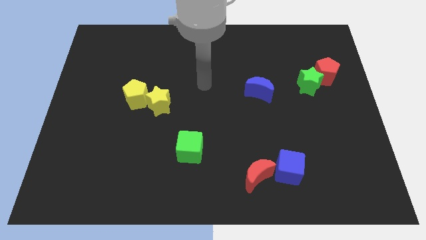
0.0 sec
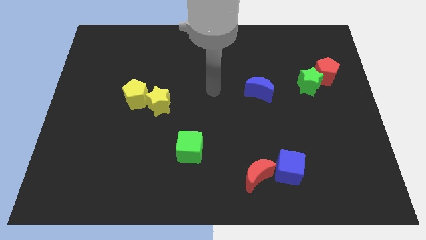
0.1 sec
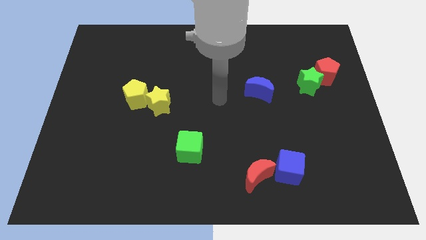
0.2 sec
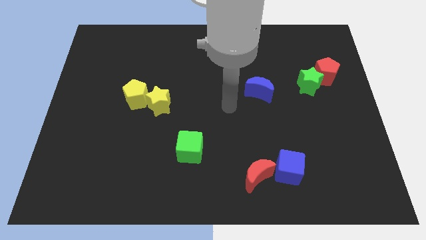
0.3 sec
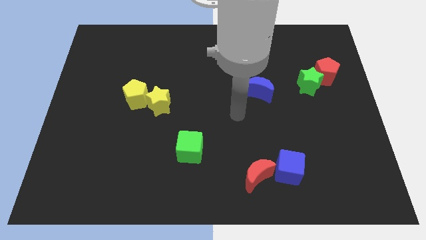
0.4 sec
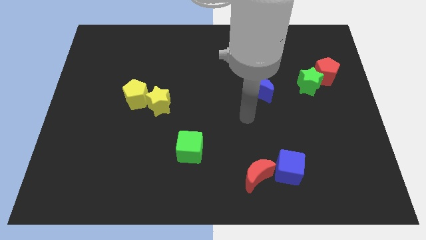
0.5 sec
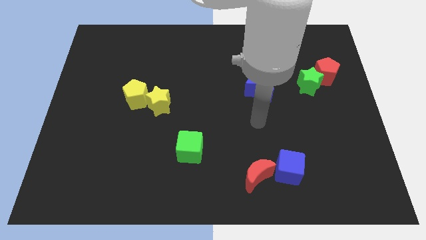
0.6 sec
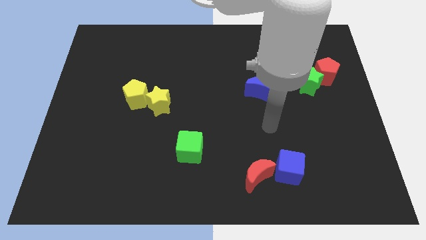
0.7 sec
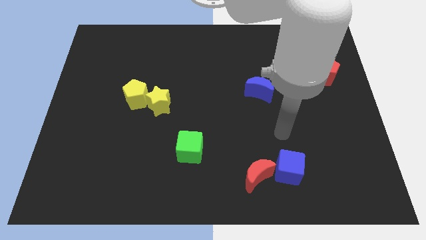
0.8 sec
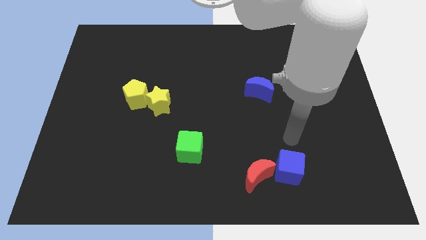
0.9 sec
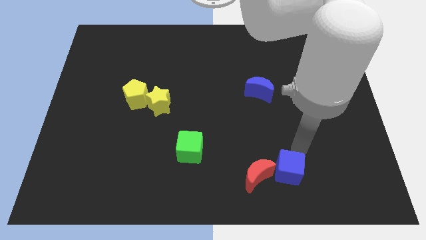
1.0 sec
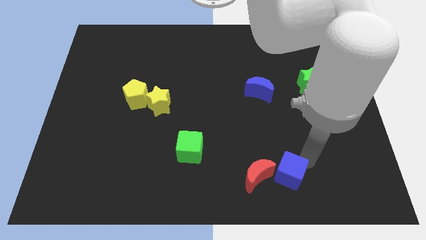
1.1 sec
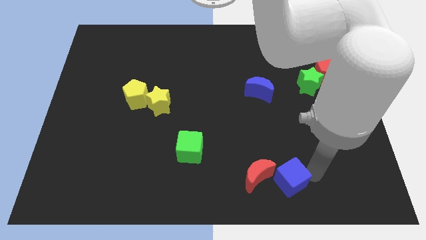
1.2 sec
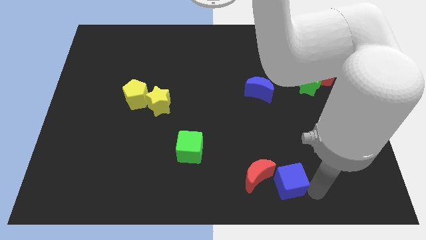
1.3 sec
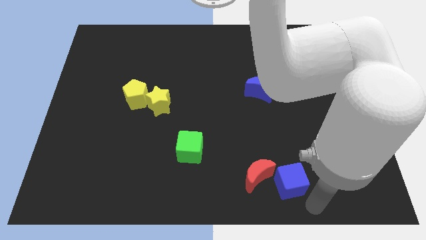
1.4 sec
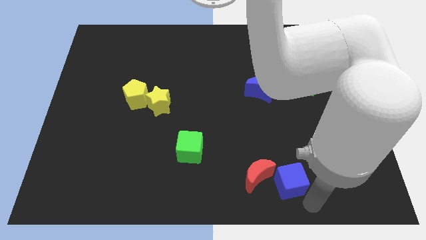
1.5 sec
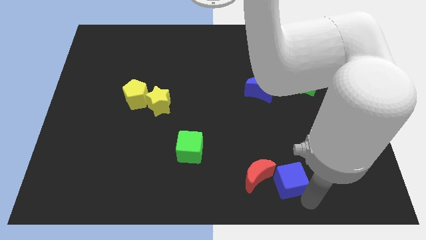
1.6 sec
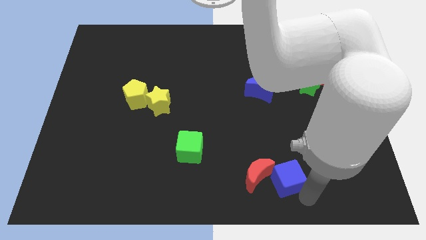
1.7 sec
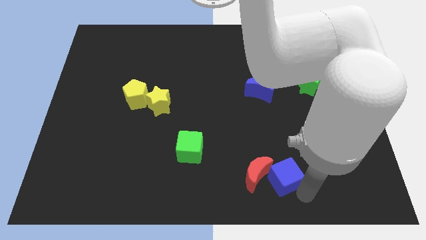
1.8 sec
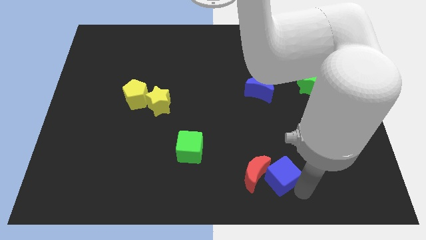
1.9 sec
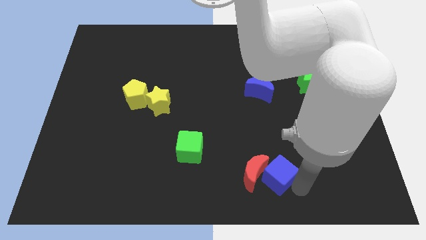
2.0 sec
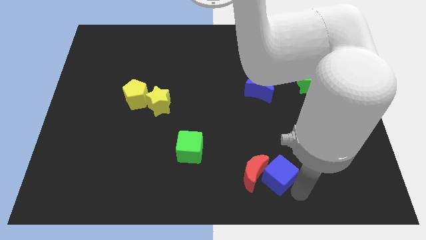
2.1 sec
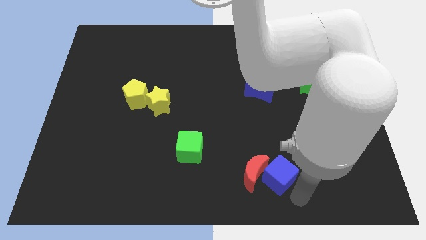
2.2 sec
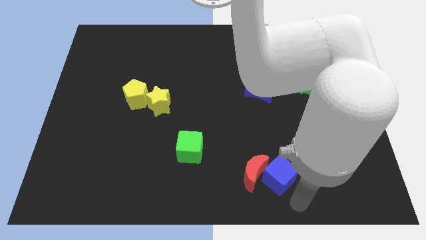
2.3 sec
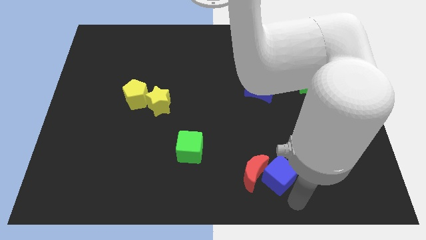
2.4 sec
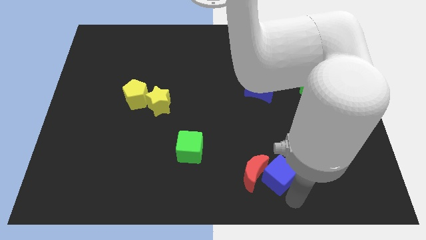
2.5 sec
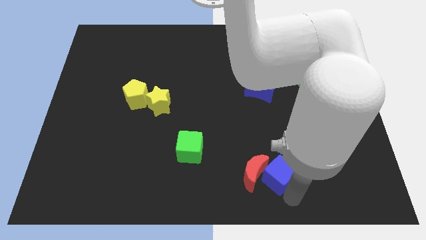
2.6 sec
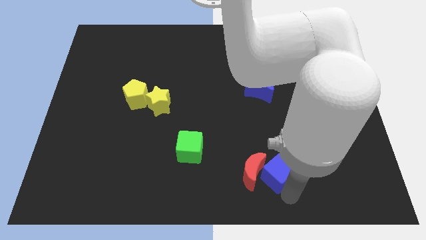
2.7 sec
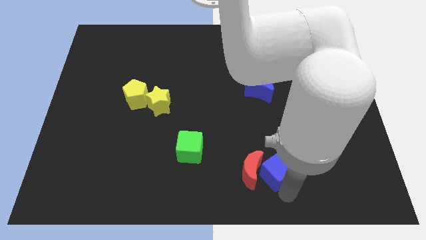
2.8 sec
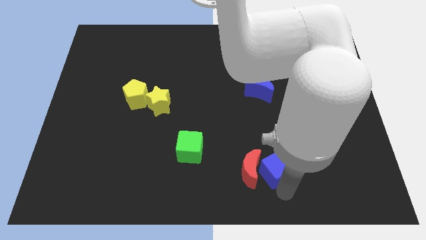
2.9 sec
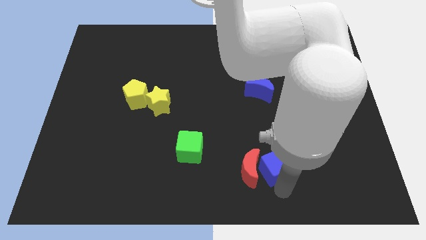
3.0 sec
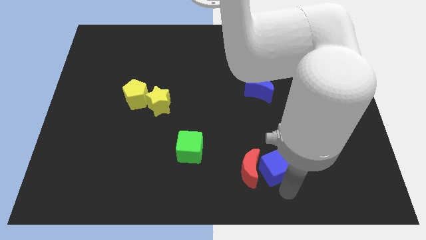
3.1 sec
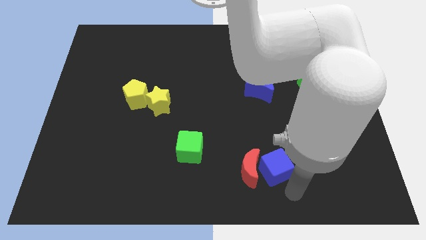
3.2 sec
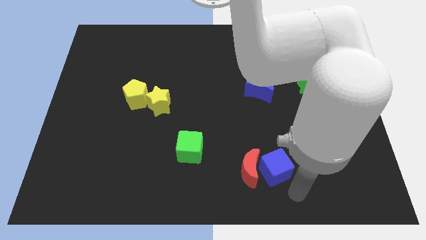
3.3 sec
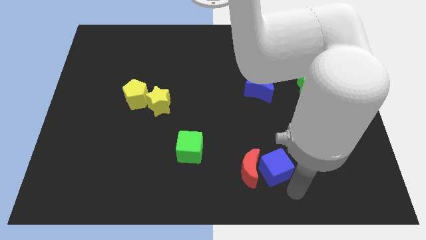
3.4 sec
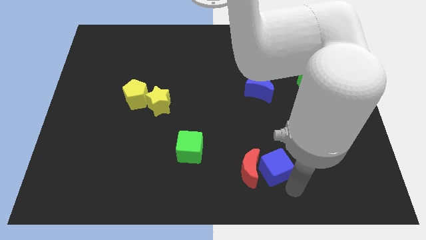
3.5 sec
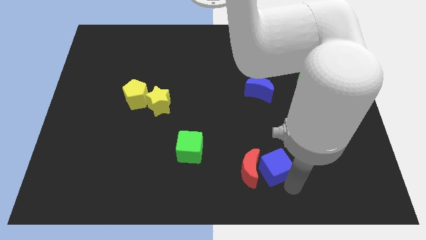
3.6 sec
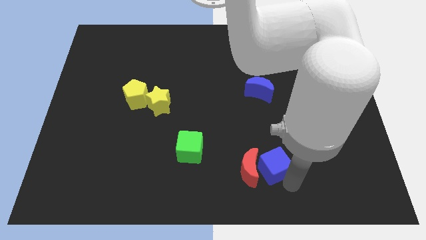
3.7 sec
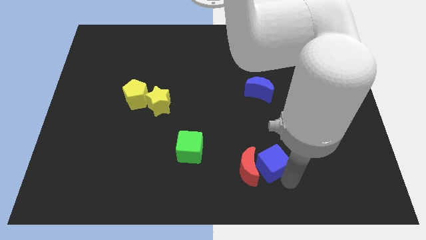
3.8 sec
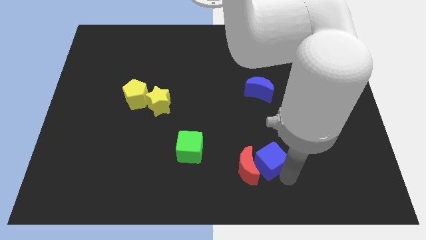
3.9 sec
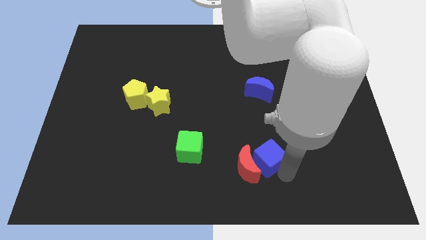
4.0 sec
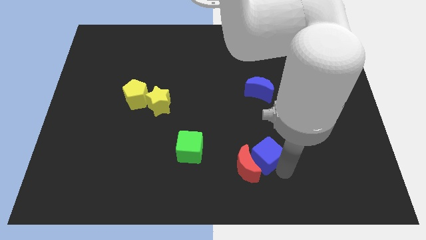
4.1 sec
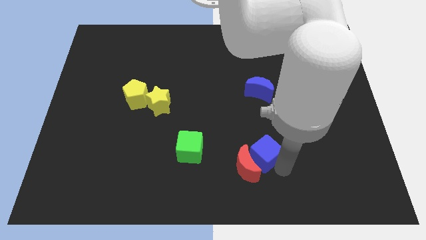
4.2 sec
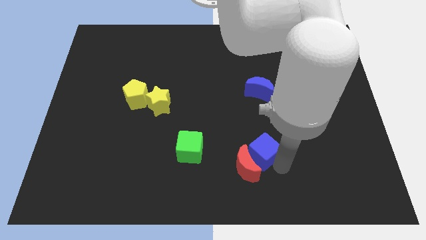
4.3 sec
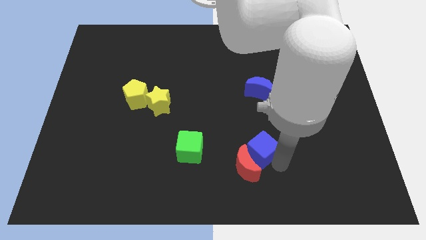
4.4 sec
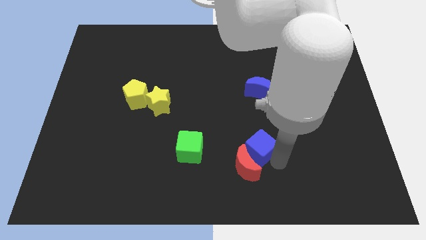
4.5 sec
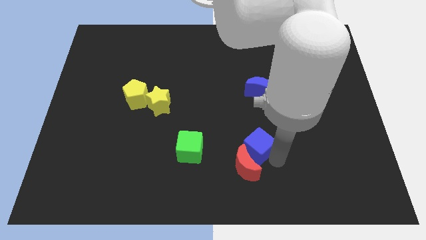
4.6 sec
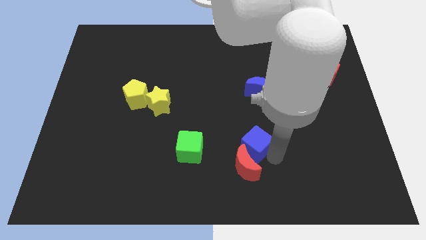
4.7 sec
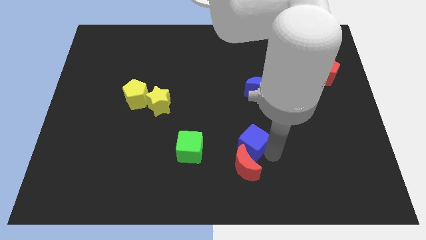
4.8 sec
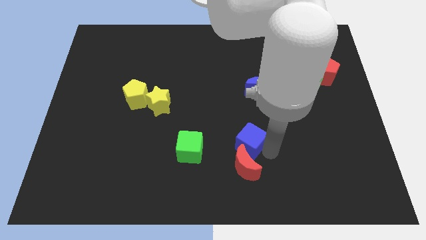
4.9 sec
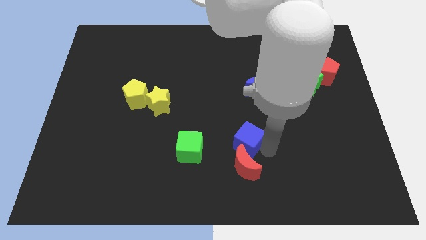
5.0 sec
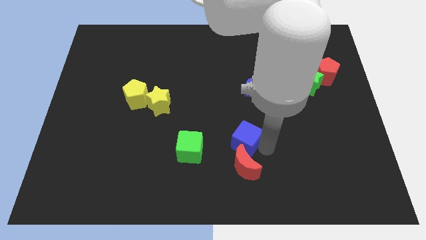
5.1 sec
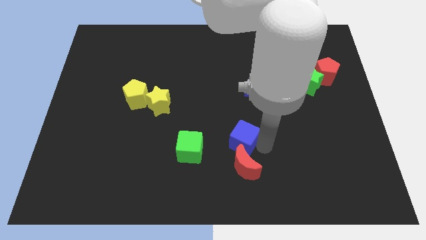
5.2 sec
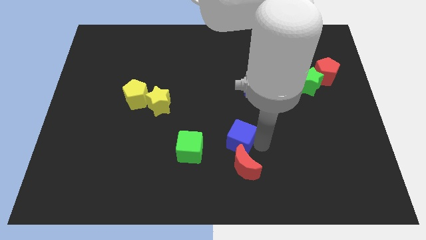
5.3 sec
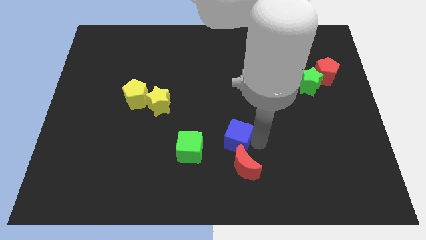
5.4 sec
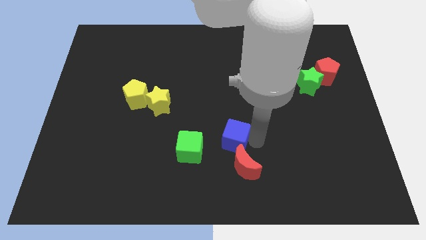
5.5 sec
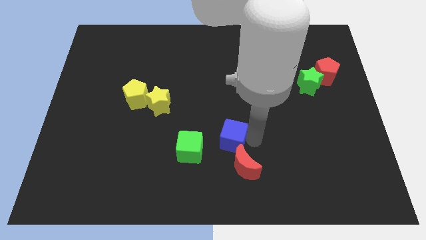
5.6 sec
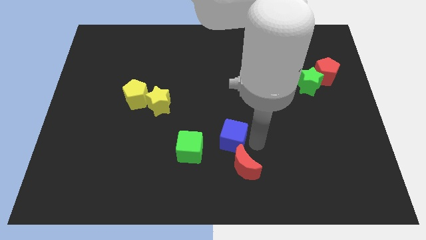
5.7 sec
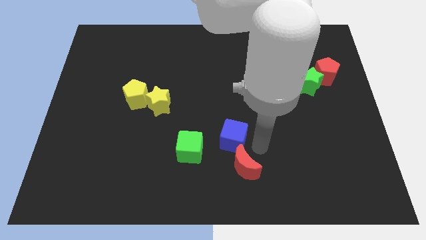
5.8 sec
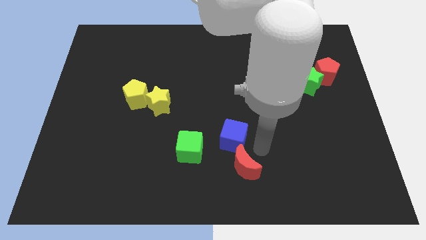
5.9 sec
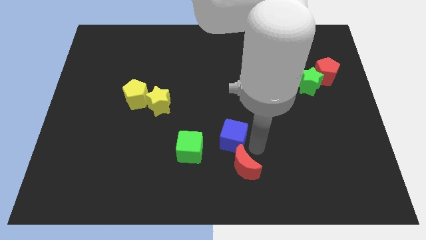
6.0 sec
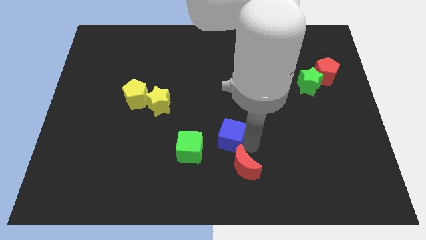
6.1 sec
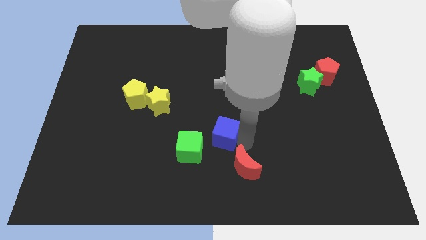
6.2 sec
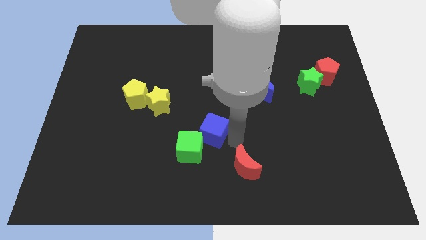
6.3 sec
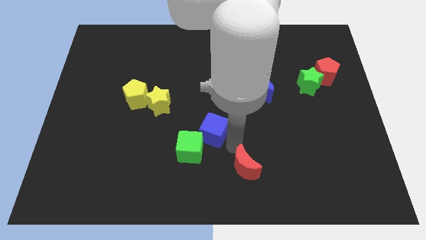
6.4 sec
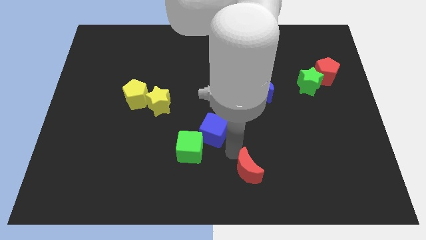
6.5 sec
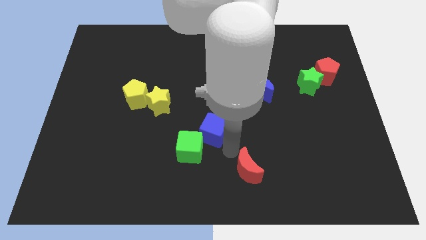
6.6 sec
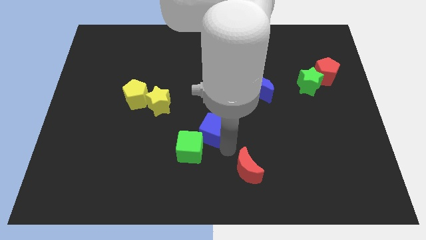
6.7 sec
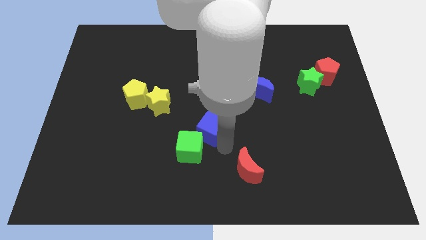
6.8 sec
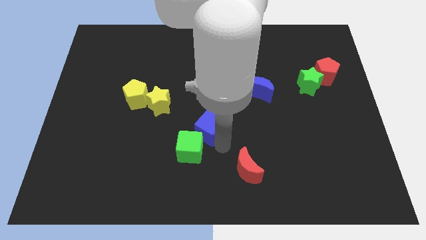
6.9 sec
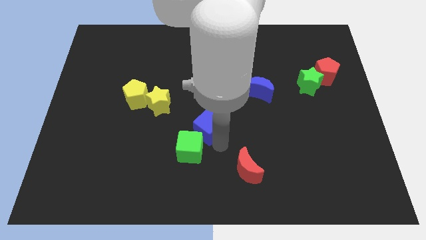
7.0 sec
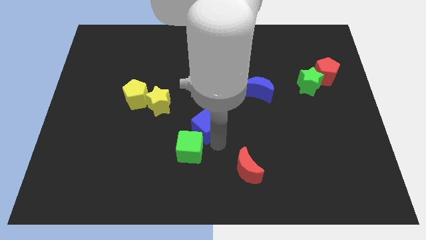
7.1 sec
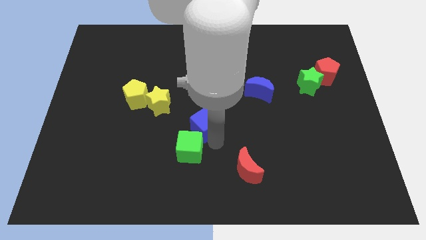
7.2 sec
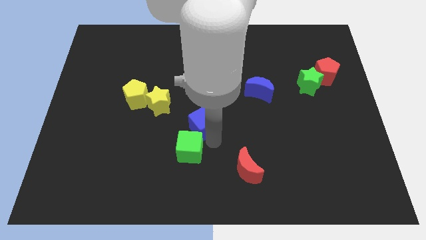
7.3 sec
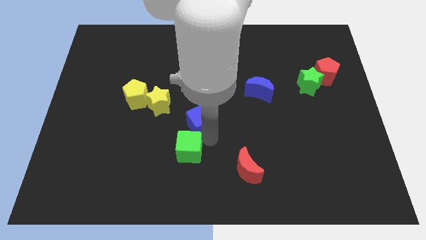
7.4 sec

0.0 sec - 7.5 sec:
push the blue cube diagonally upwards and left

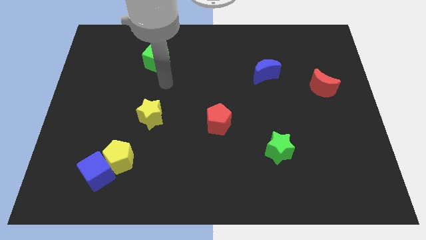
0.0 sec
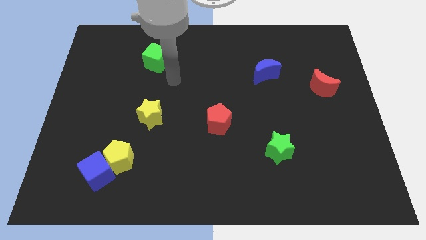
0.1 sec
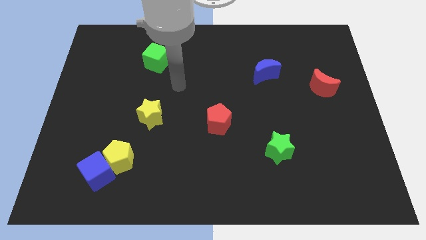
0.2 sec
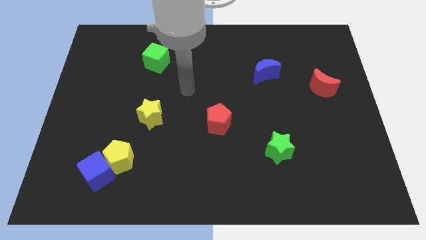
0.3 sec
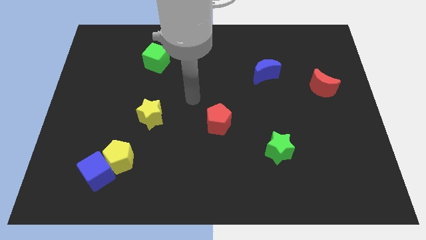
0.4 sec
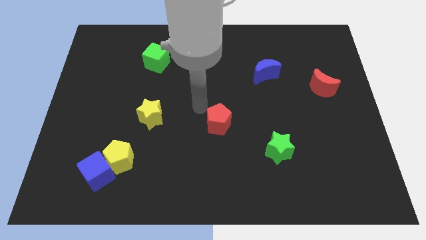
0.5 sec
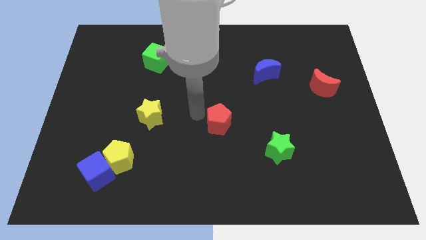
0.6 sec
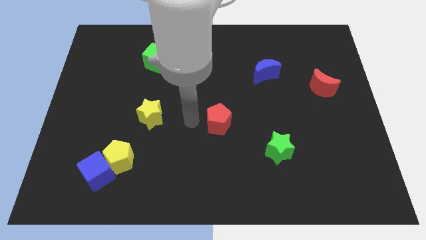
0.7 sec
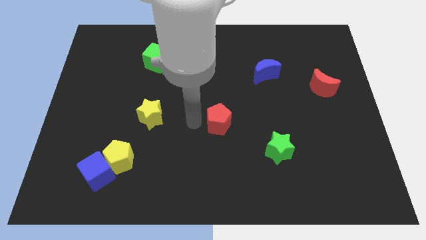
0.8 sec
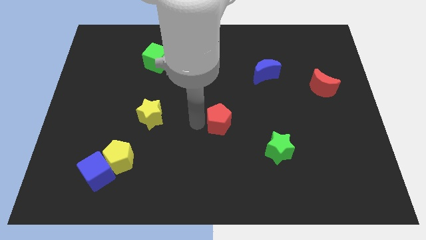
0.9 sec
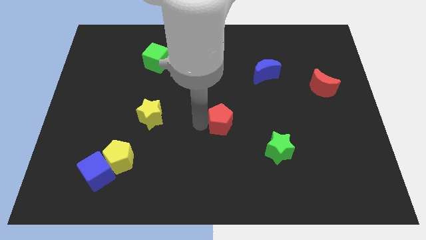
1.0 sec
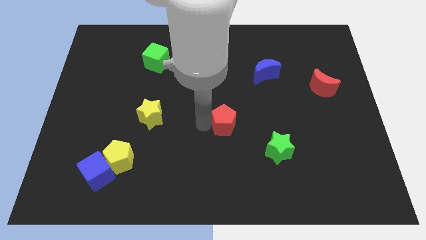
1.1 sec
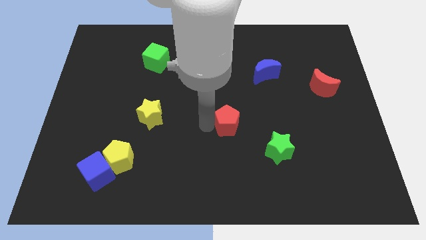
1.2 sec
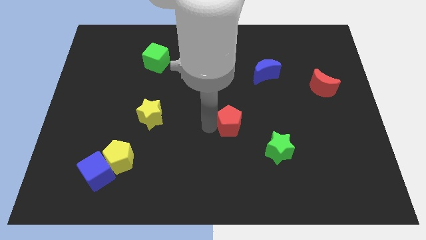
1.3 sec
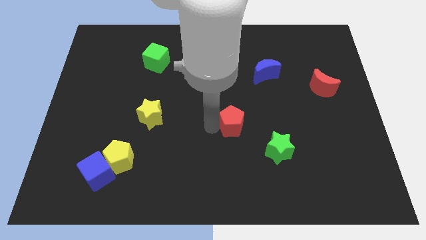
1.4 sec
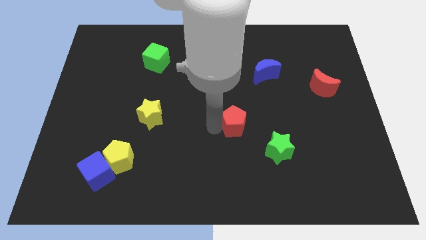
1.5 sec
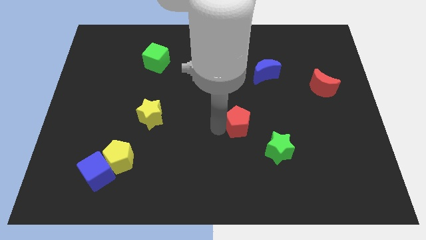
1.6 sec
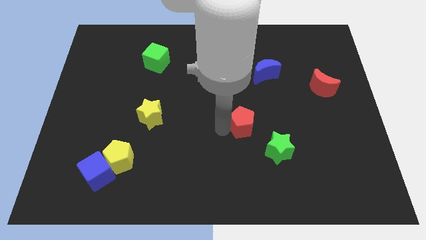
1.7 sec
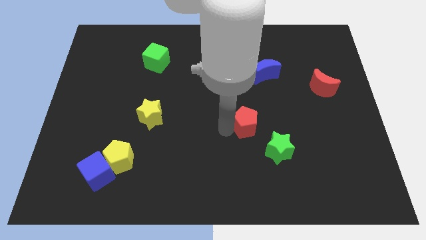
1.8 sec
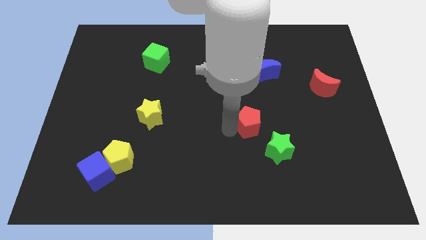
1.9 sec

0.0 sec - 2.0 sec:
move the red pentagon a bit to the right
